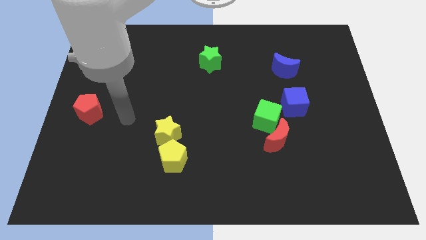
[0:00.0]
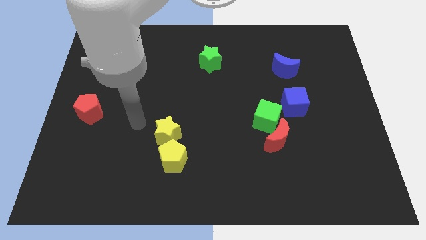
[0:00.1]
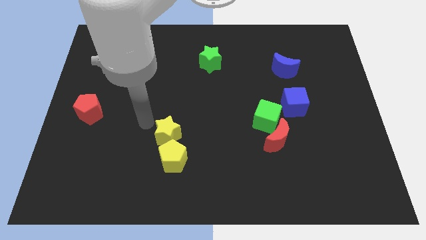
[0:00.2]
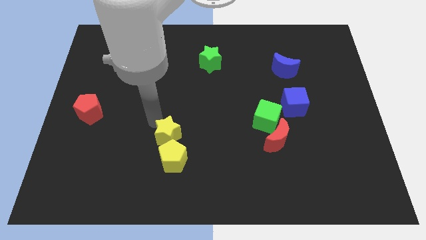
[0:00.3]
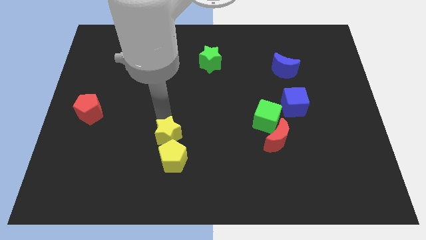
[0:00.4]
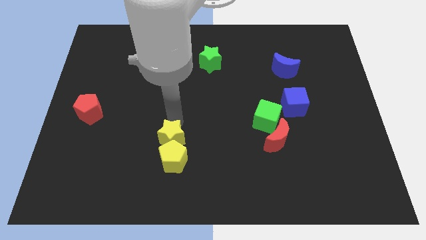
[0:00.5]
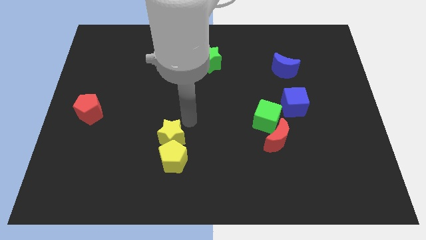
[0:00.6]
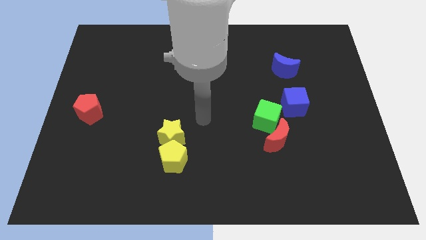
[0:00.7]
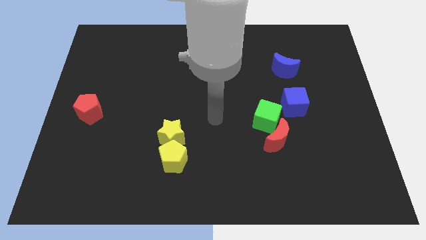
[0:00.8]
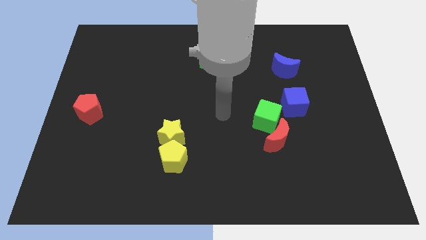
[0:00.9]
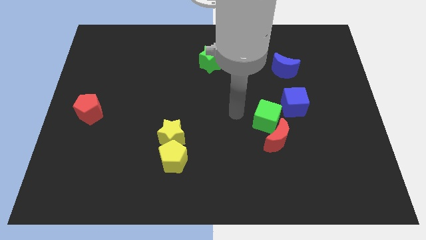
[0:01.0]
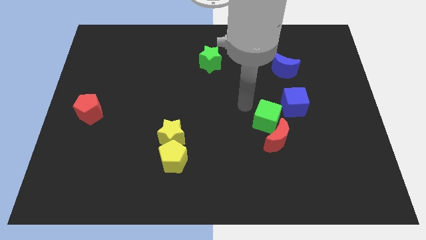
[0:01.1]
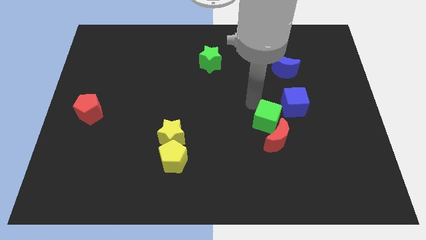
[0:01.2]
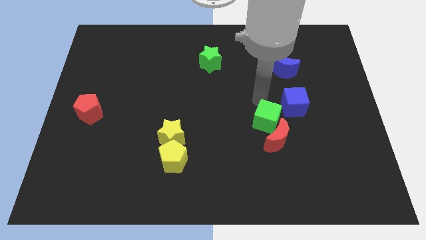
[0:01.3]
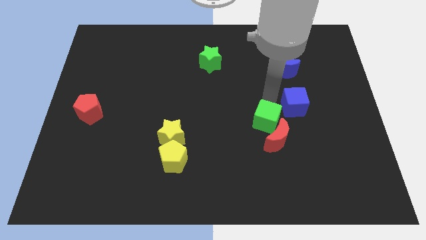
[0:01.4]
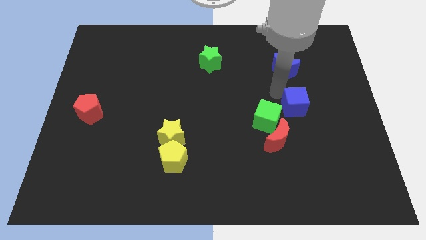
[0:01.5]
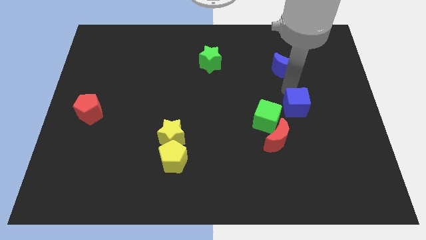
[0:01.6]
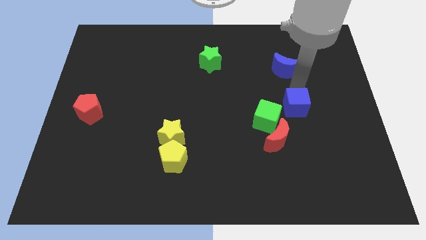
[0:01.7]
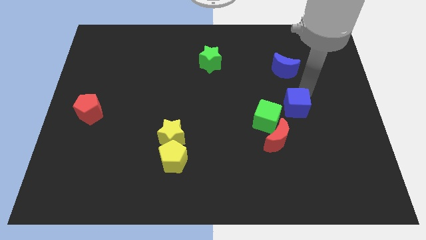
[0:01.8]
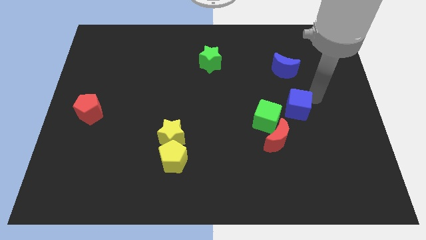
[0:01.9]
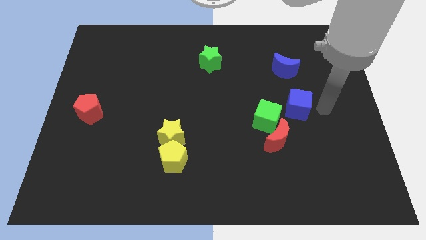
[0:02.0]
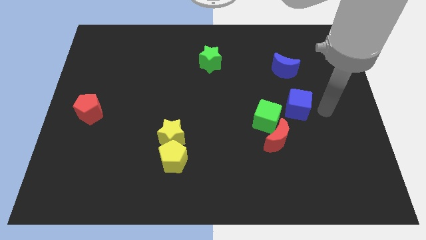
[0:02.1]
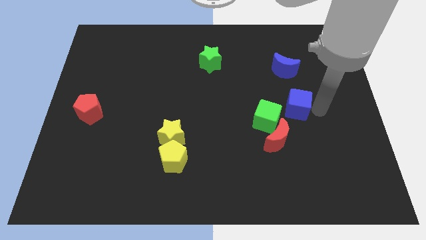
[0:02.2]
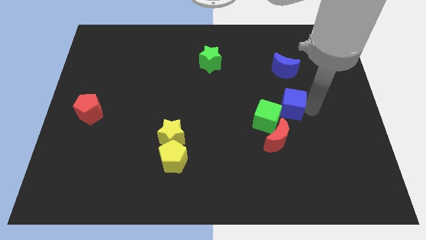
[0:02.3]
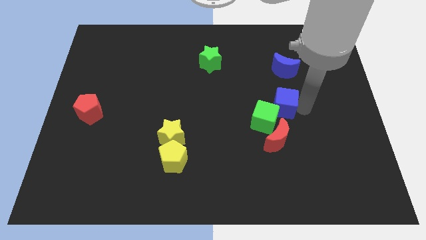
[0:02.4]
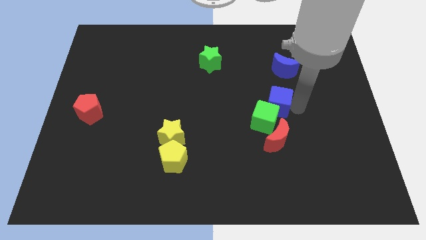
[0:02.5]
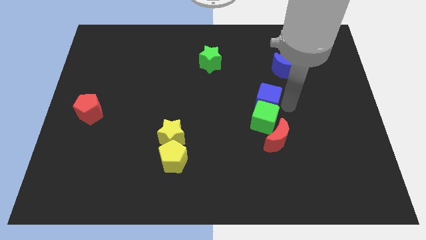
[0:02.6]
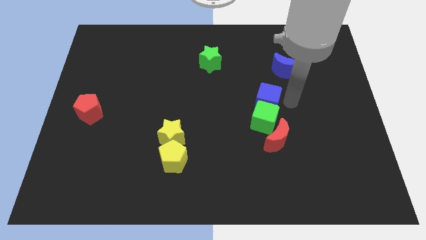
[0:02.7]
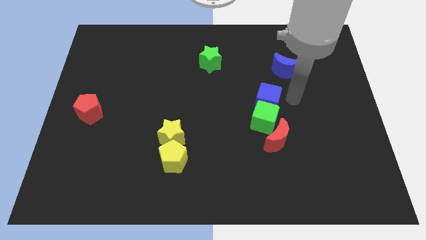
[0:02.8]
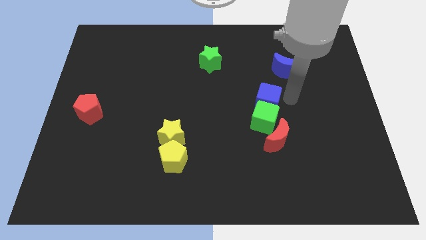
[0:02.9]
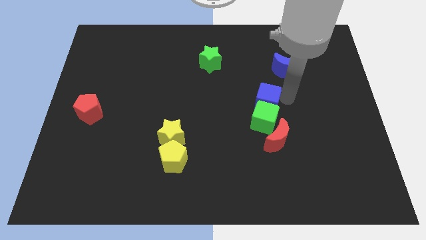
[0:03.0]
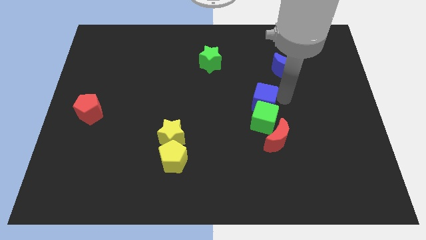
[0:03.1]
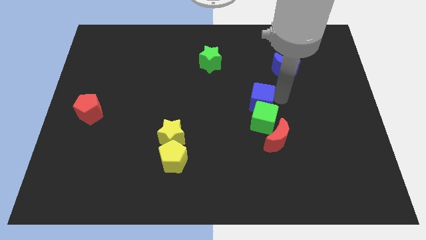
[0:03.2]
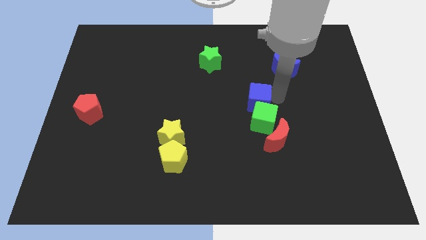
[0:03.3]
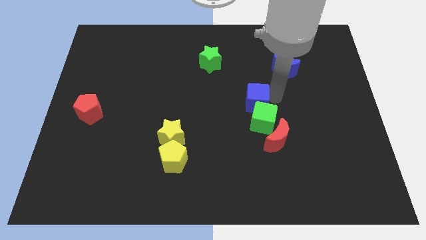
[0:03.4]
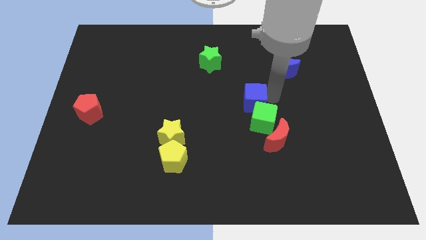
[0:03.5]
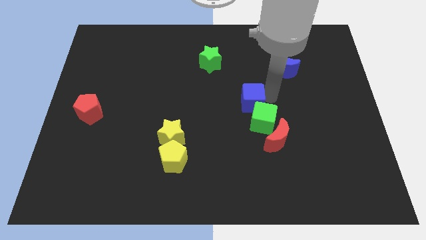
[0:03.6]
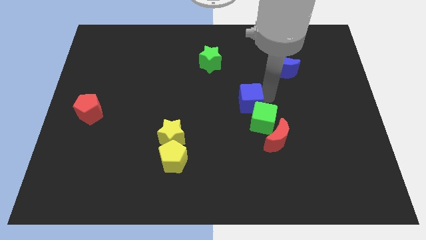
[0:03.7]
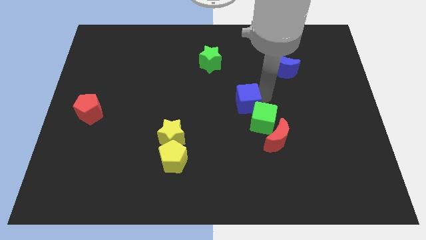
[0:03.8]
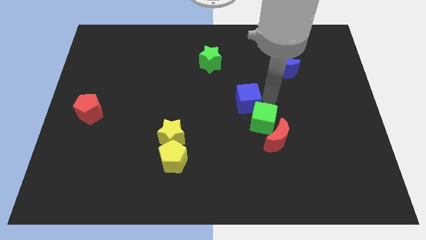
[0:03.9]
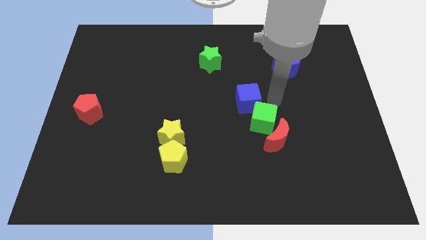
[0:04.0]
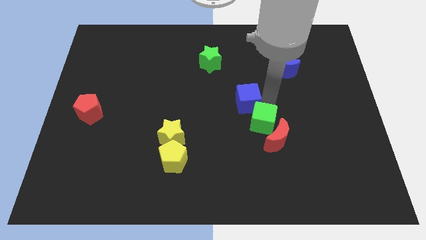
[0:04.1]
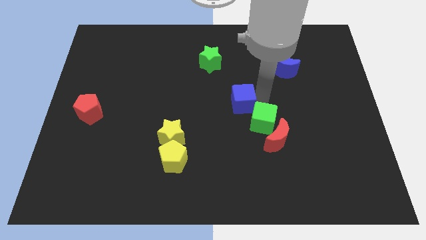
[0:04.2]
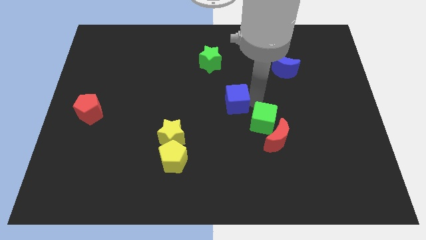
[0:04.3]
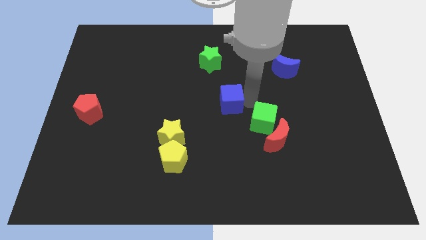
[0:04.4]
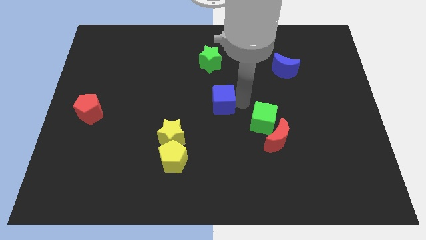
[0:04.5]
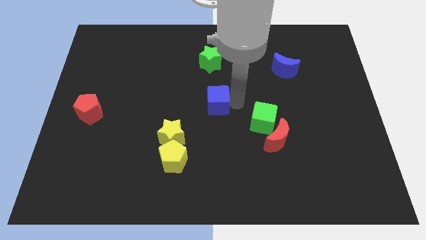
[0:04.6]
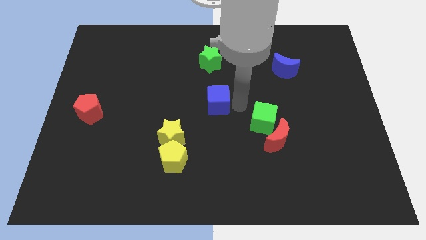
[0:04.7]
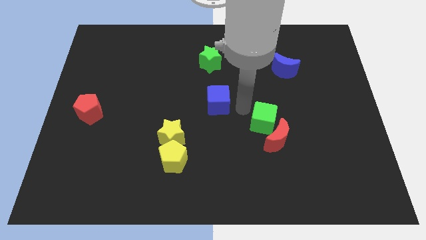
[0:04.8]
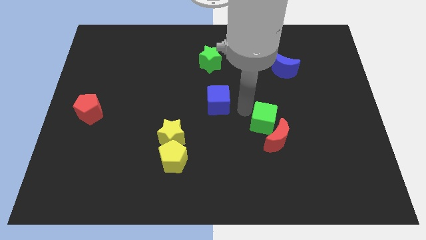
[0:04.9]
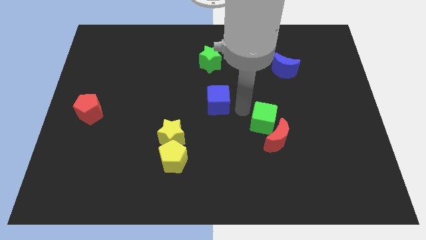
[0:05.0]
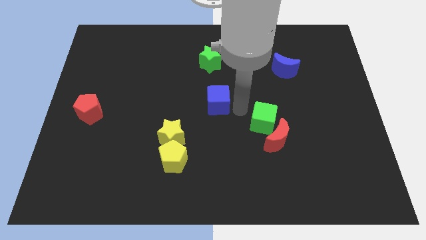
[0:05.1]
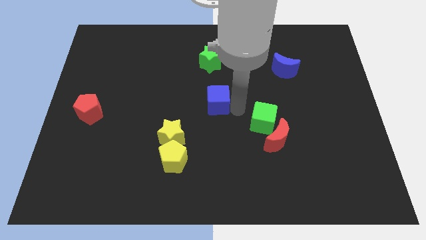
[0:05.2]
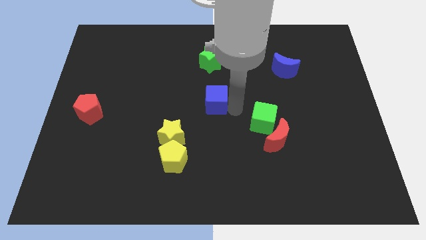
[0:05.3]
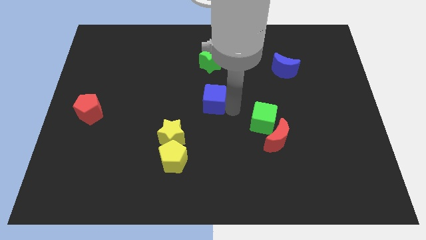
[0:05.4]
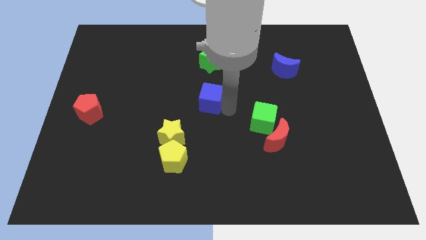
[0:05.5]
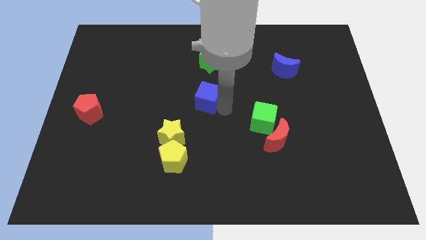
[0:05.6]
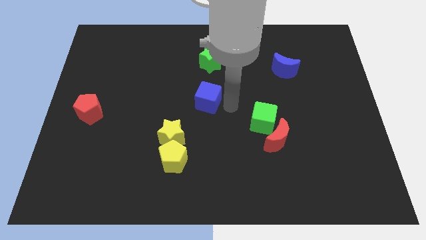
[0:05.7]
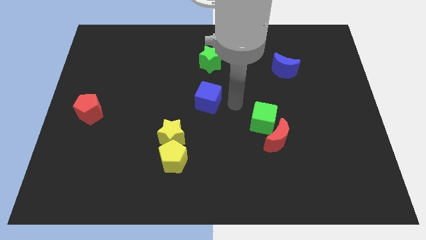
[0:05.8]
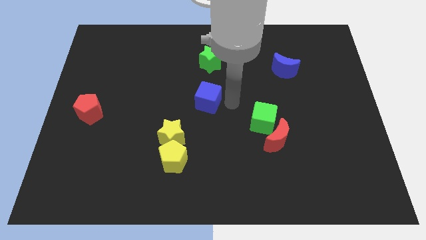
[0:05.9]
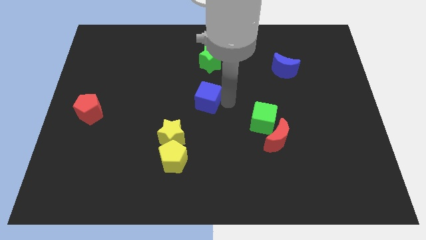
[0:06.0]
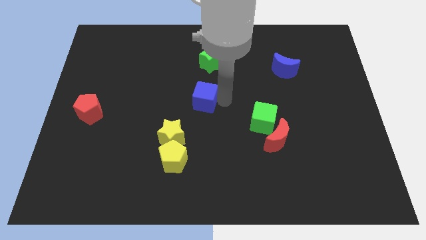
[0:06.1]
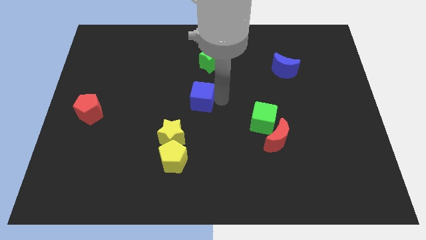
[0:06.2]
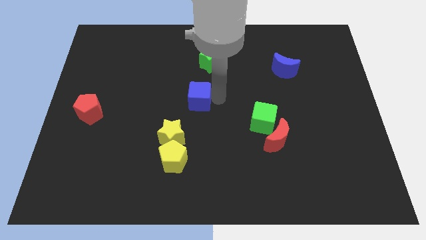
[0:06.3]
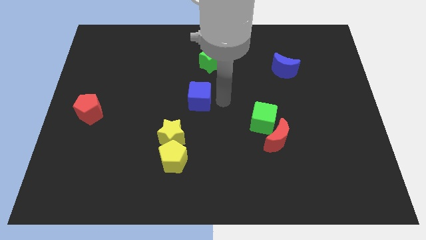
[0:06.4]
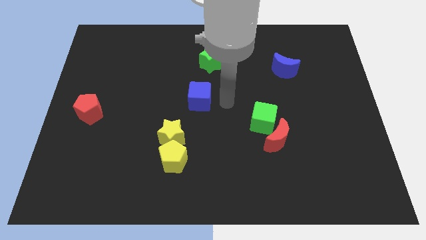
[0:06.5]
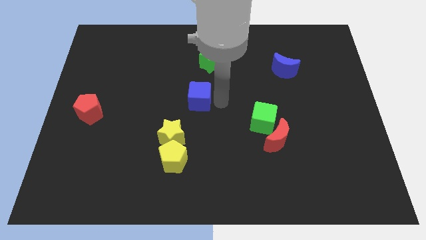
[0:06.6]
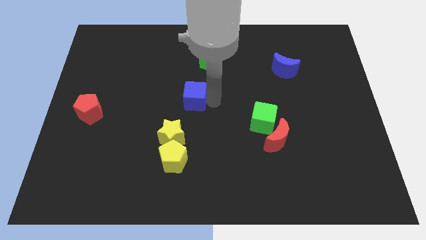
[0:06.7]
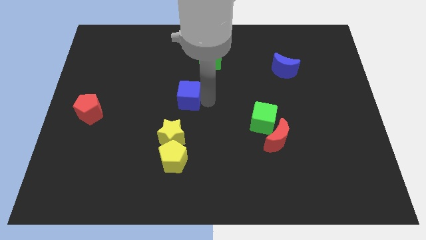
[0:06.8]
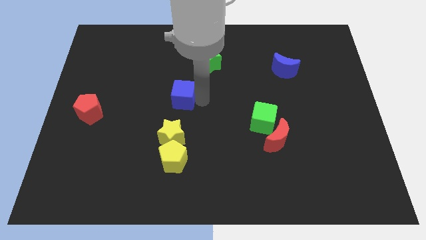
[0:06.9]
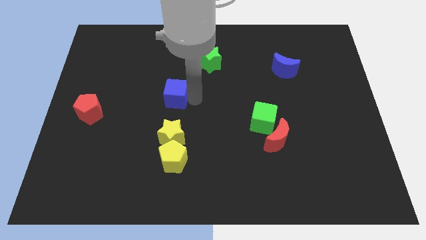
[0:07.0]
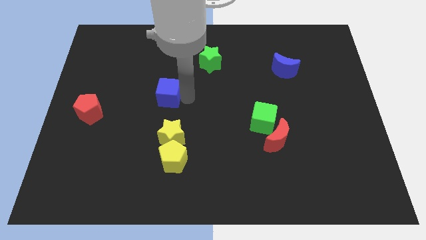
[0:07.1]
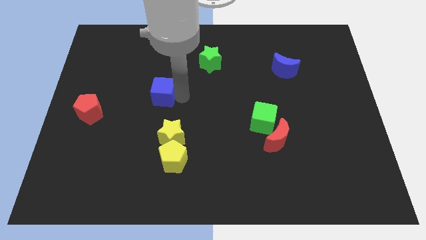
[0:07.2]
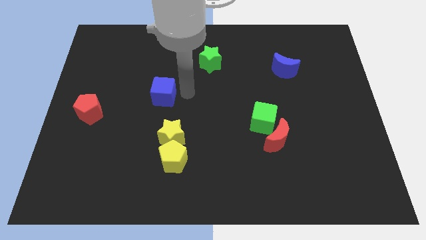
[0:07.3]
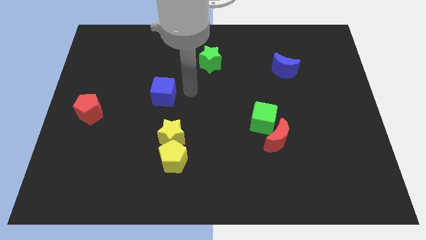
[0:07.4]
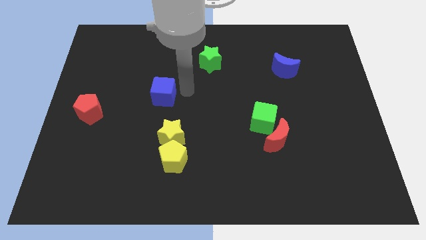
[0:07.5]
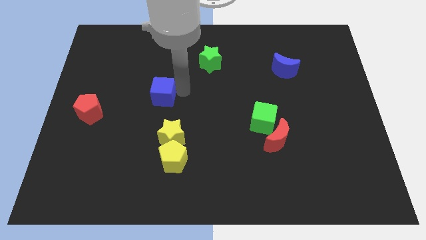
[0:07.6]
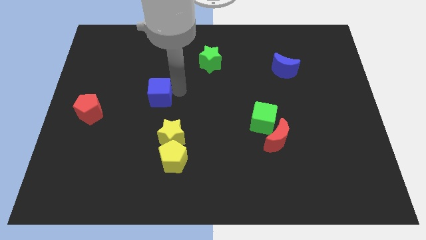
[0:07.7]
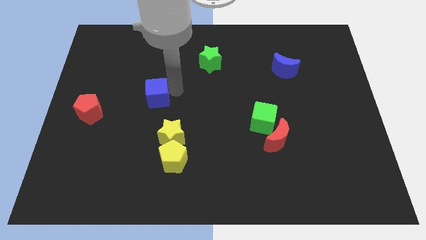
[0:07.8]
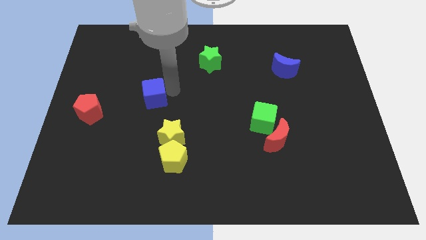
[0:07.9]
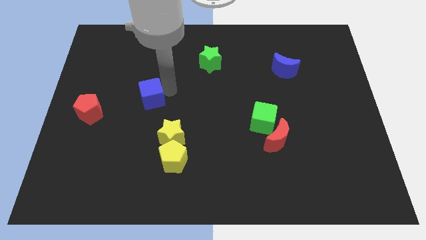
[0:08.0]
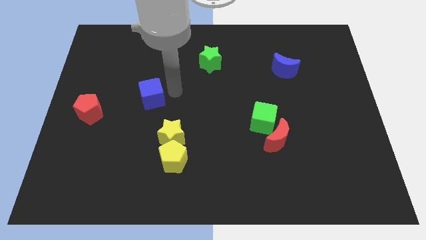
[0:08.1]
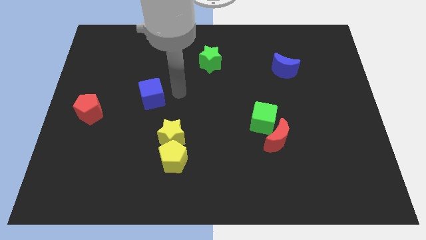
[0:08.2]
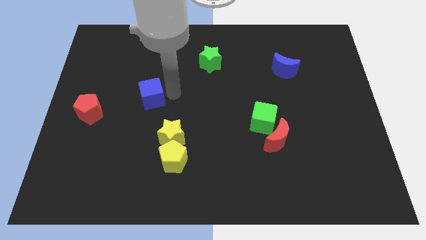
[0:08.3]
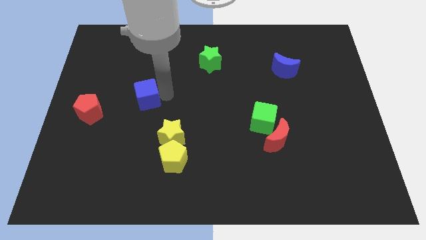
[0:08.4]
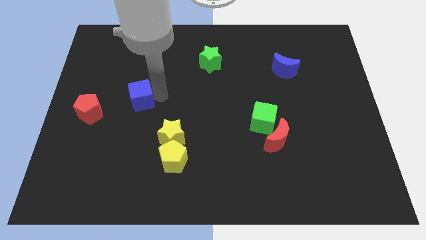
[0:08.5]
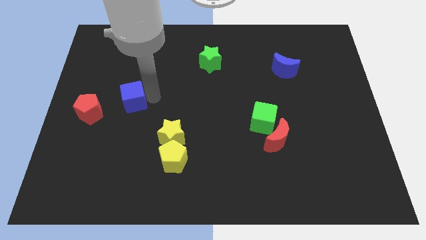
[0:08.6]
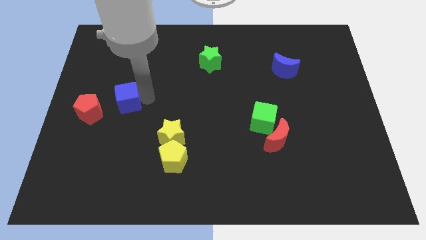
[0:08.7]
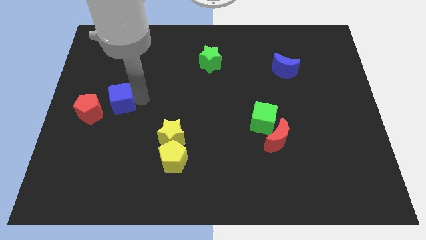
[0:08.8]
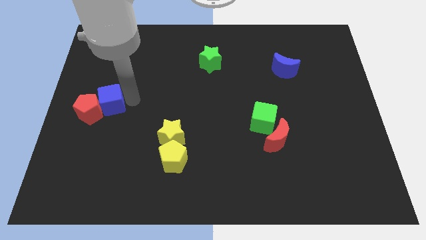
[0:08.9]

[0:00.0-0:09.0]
move the blue cube close to the red pentagon
